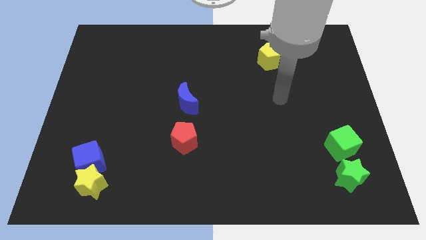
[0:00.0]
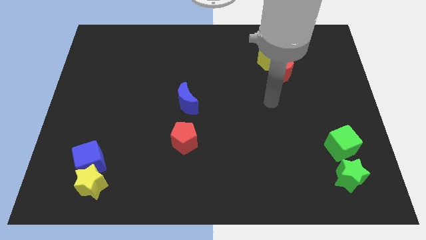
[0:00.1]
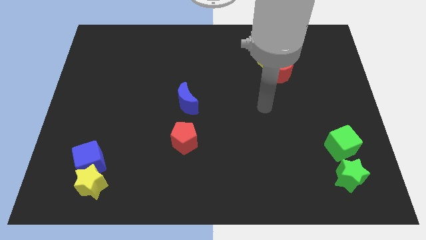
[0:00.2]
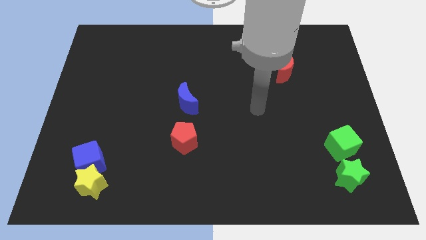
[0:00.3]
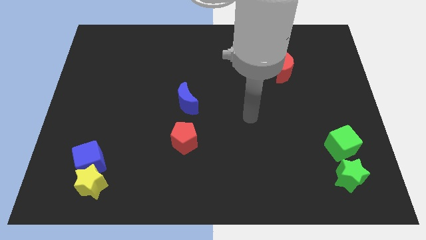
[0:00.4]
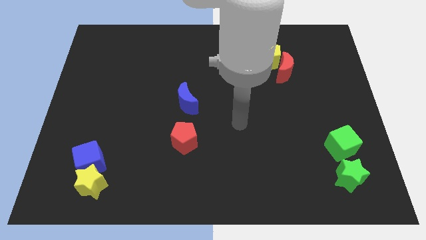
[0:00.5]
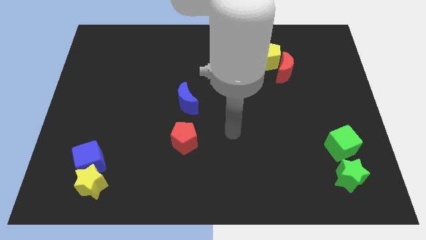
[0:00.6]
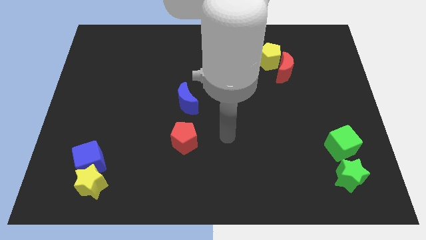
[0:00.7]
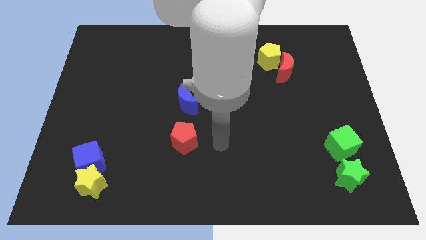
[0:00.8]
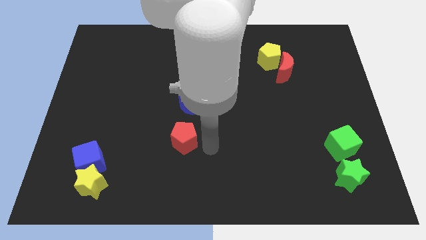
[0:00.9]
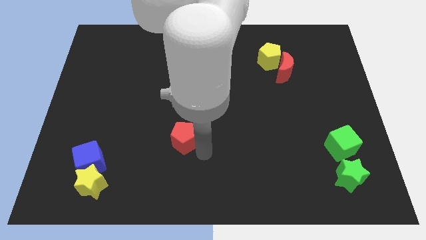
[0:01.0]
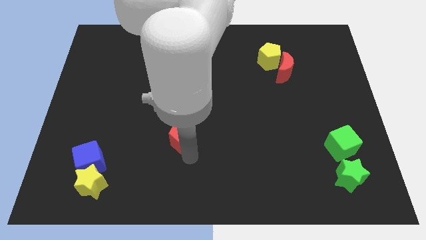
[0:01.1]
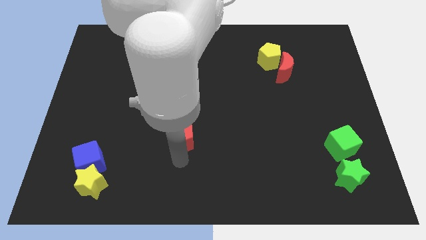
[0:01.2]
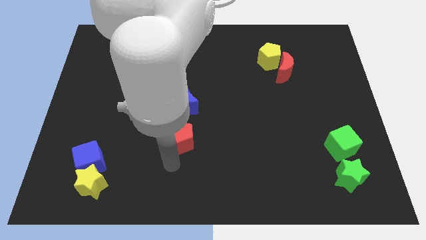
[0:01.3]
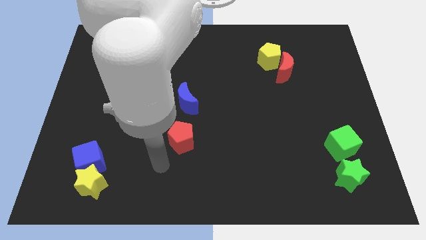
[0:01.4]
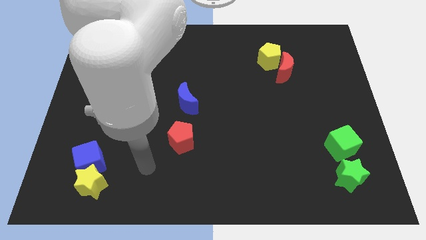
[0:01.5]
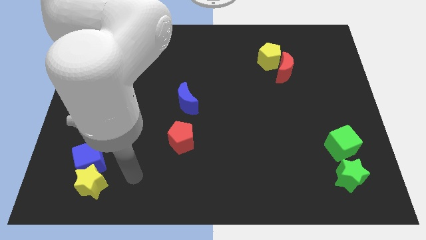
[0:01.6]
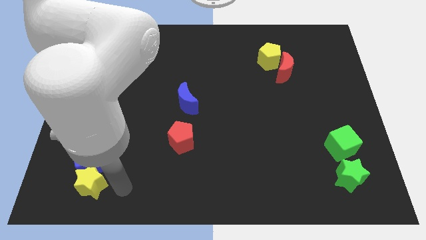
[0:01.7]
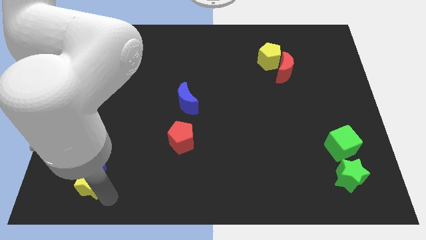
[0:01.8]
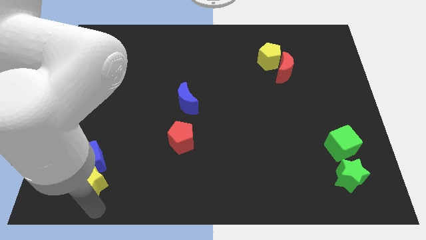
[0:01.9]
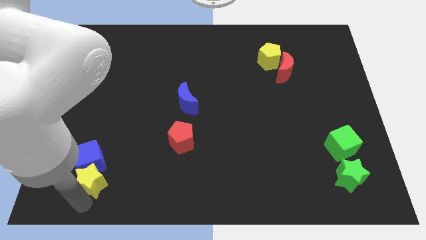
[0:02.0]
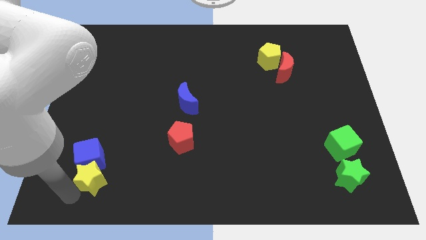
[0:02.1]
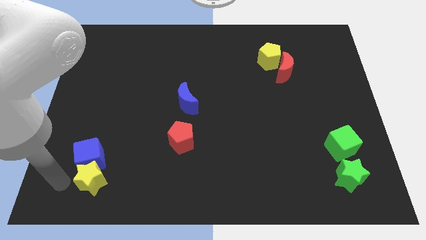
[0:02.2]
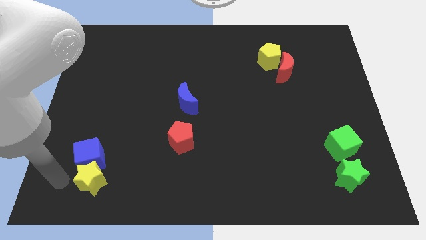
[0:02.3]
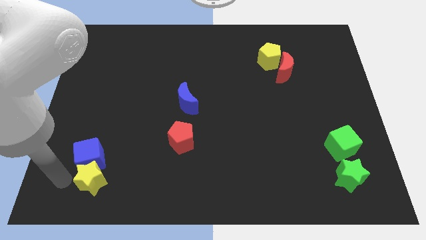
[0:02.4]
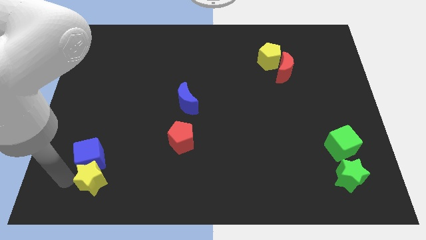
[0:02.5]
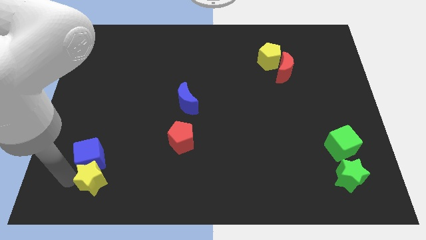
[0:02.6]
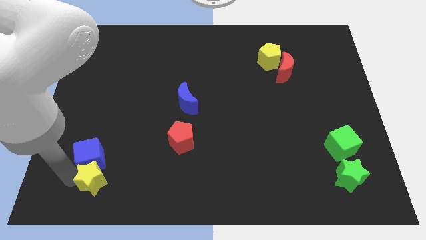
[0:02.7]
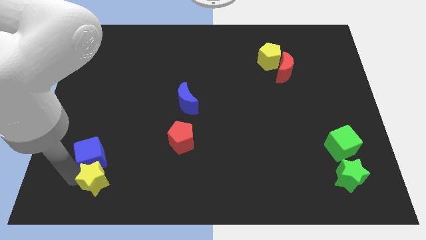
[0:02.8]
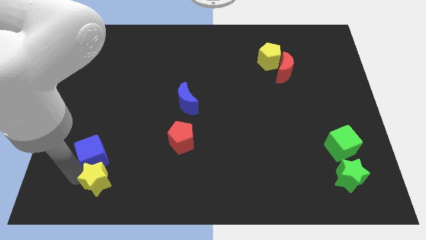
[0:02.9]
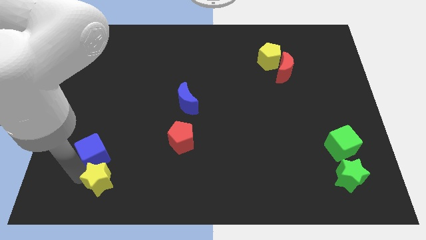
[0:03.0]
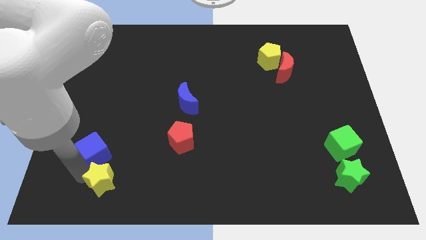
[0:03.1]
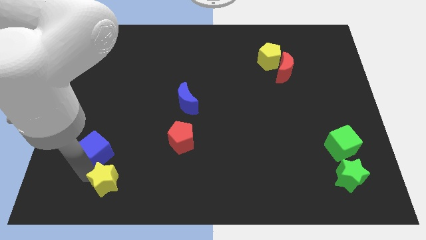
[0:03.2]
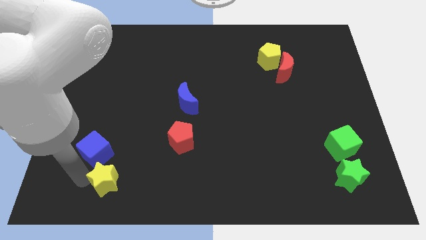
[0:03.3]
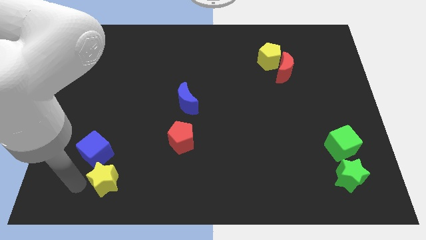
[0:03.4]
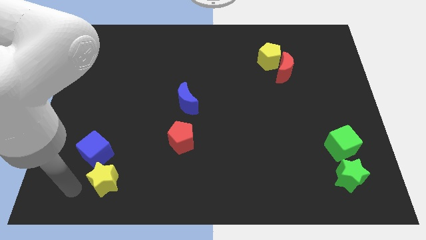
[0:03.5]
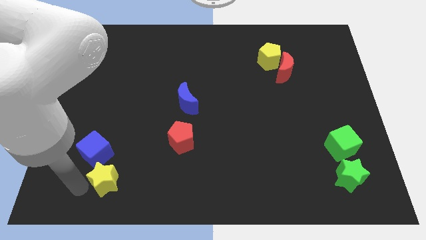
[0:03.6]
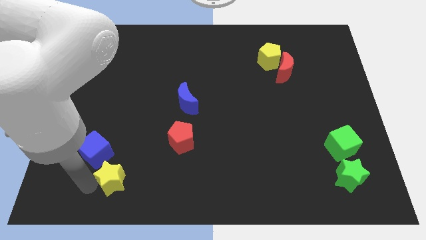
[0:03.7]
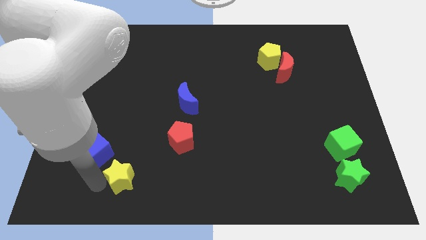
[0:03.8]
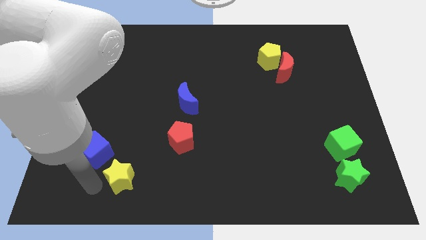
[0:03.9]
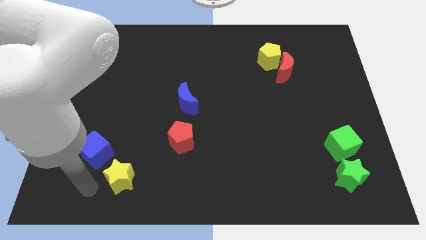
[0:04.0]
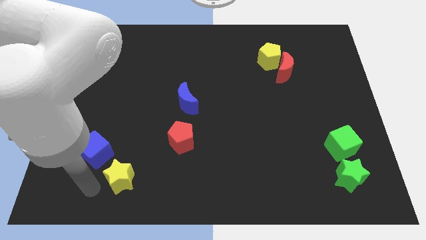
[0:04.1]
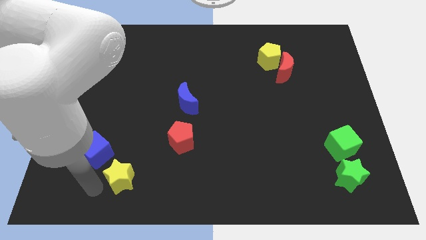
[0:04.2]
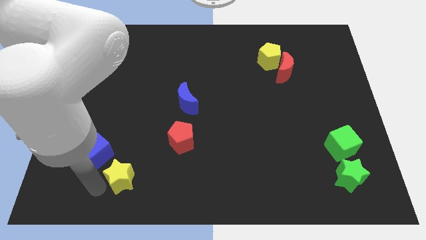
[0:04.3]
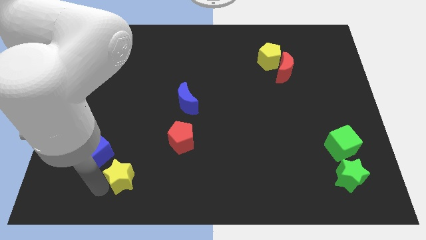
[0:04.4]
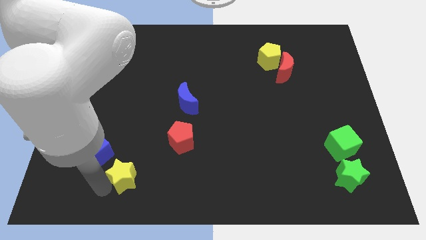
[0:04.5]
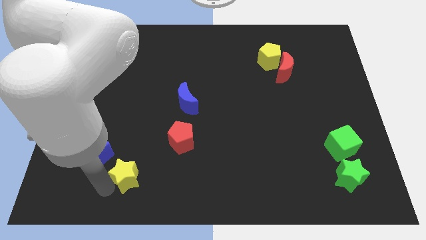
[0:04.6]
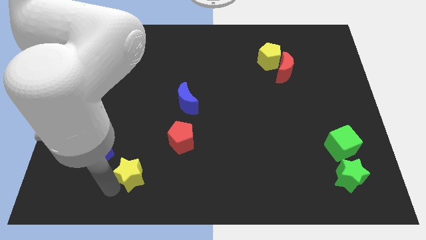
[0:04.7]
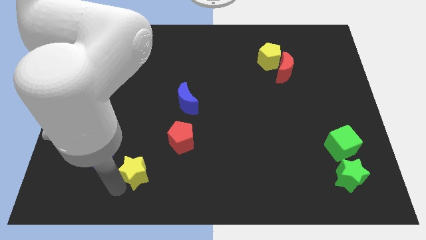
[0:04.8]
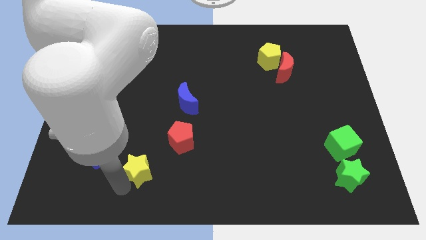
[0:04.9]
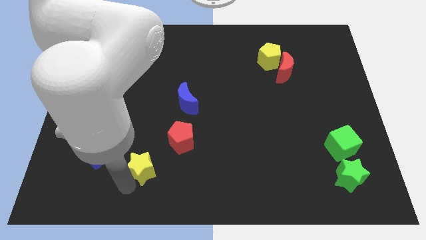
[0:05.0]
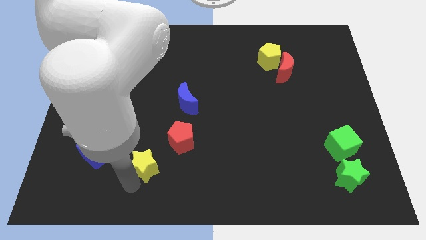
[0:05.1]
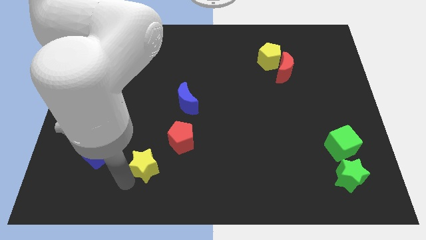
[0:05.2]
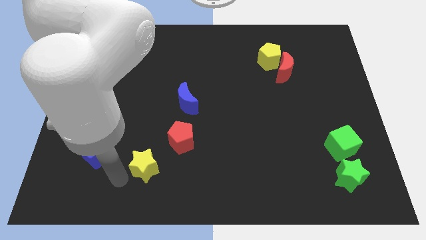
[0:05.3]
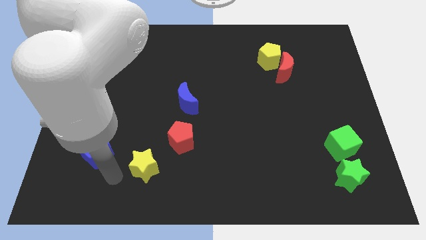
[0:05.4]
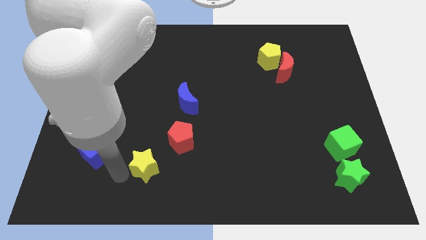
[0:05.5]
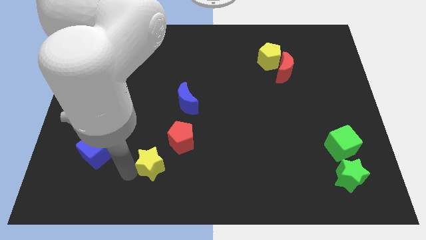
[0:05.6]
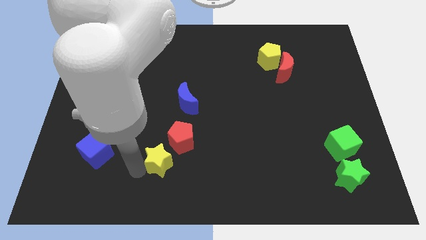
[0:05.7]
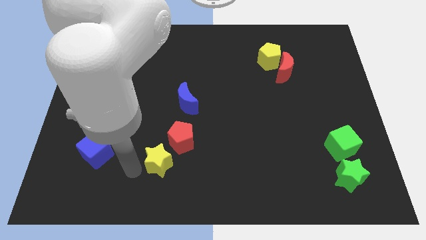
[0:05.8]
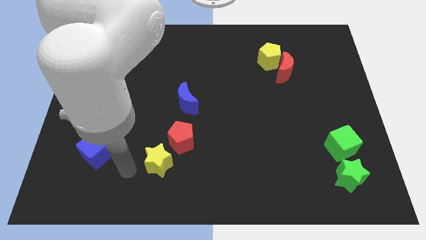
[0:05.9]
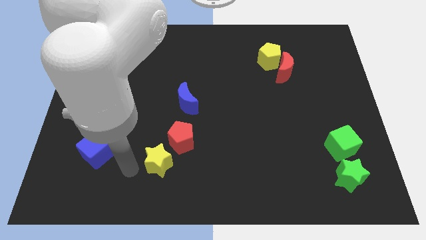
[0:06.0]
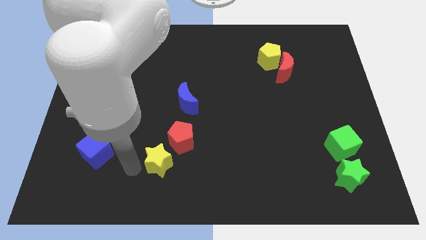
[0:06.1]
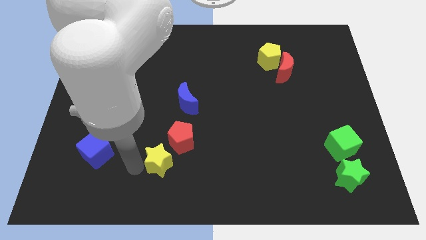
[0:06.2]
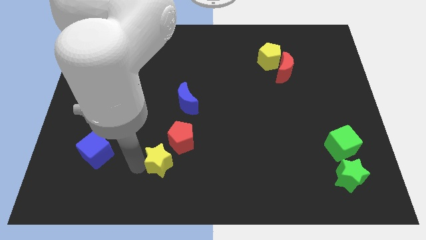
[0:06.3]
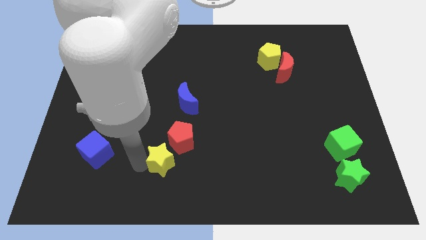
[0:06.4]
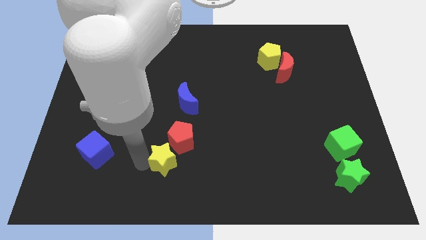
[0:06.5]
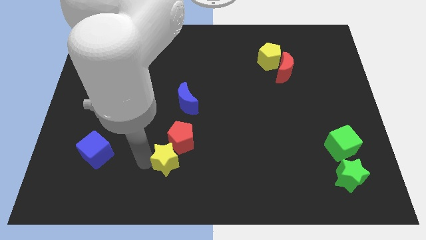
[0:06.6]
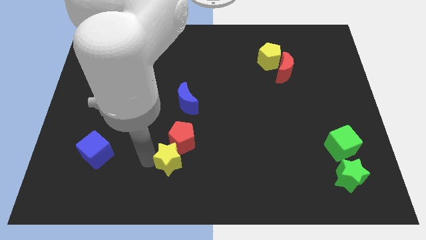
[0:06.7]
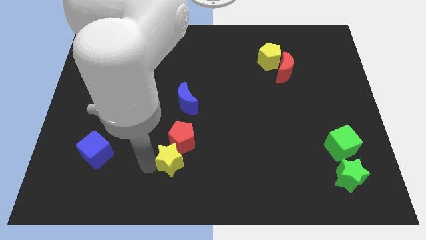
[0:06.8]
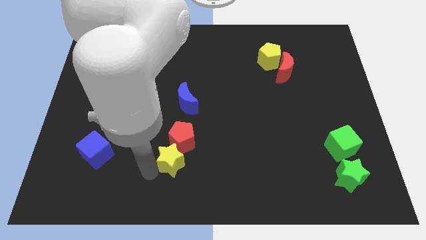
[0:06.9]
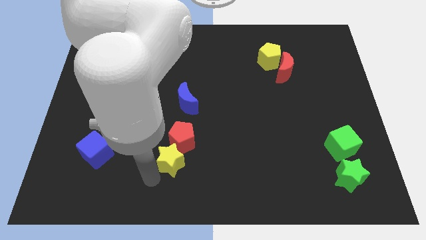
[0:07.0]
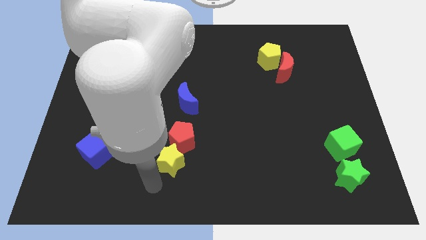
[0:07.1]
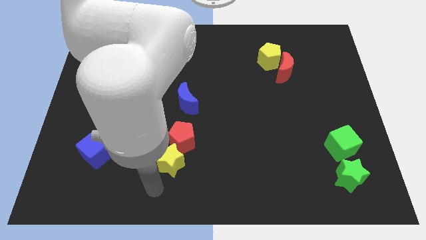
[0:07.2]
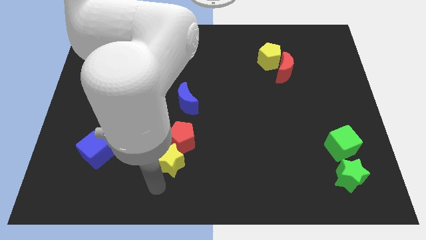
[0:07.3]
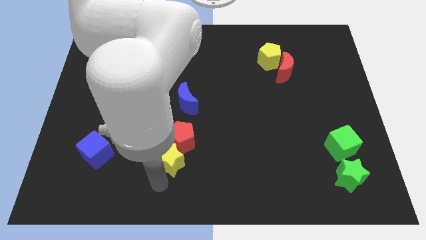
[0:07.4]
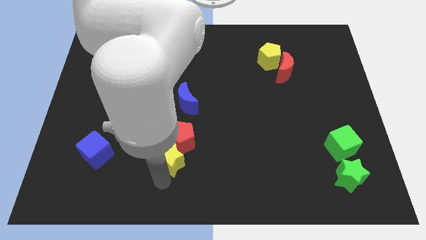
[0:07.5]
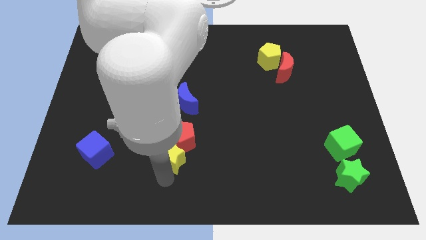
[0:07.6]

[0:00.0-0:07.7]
move the yellow star to the bottom side of the blue moon

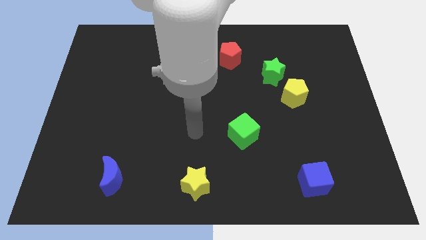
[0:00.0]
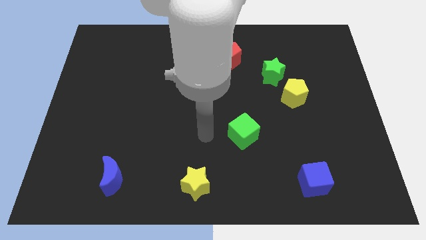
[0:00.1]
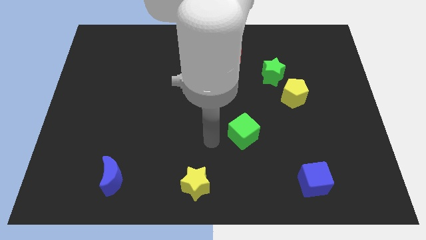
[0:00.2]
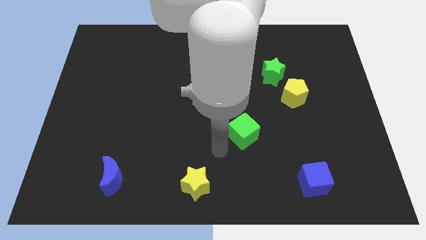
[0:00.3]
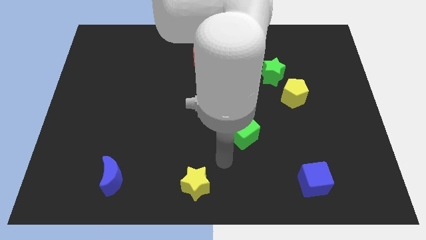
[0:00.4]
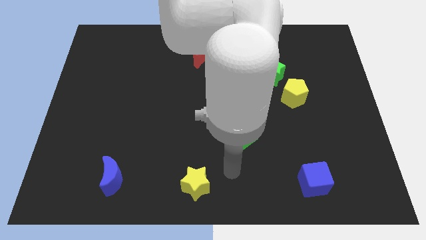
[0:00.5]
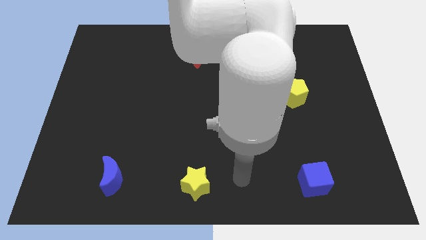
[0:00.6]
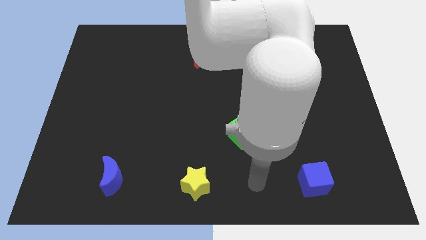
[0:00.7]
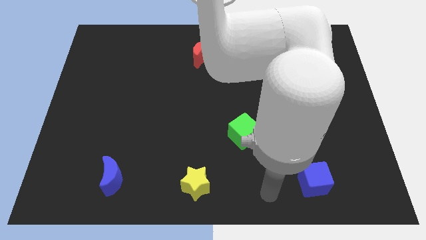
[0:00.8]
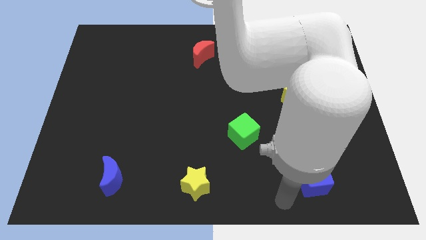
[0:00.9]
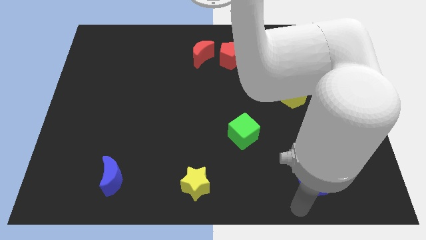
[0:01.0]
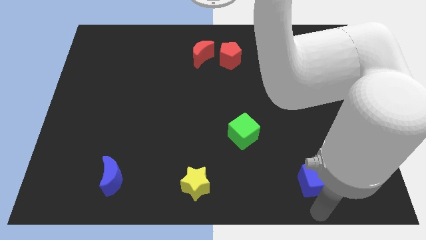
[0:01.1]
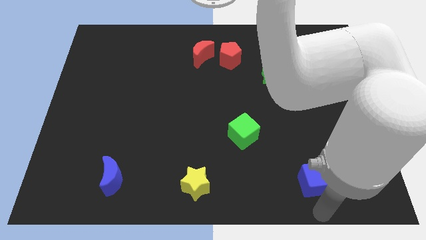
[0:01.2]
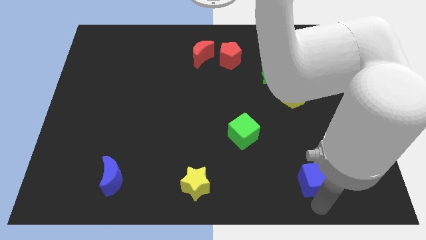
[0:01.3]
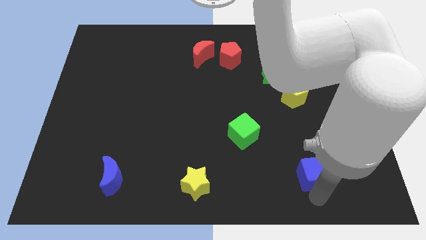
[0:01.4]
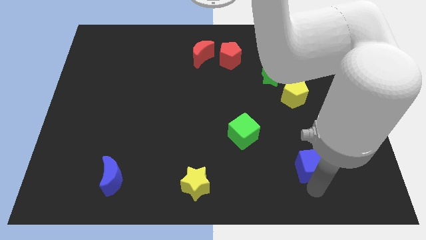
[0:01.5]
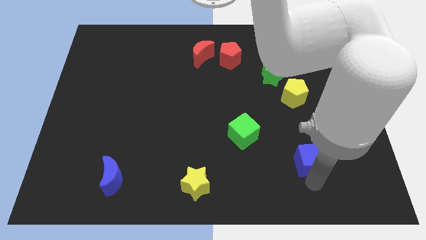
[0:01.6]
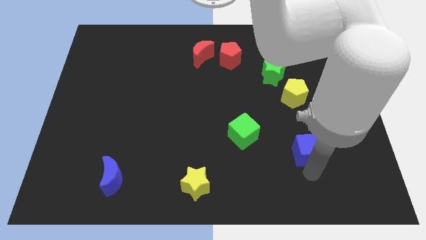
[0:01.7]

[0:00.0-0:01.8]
move the blue cube to the bottom side of the yellow pentagon
